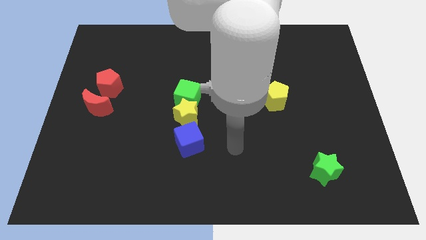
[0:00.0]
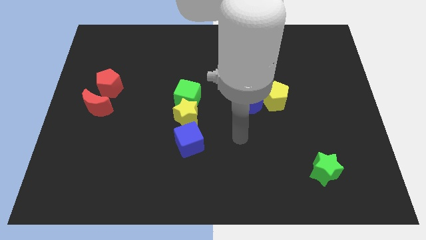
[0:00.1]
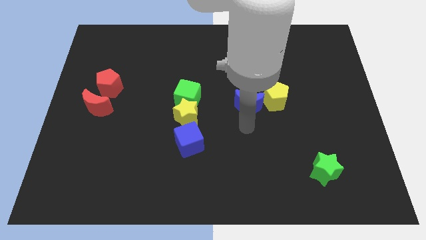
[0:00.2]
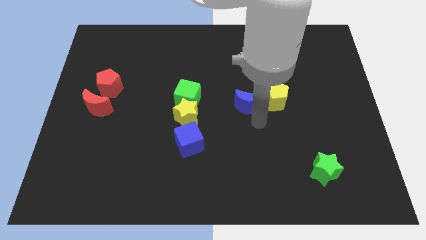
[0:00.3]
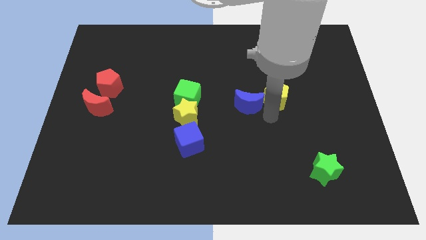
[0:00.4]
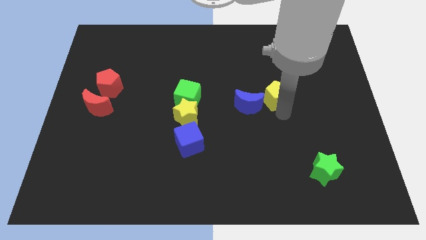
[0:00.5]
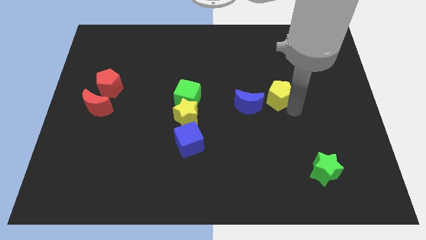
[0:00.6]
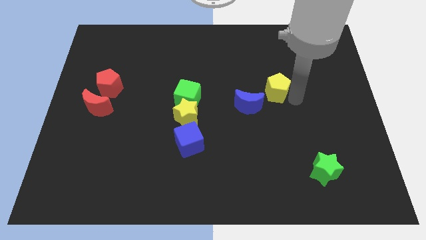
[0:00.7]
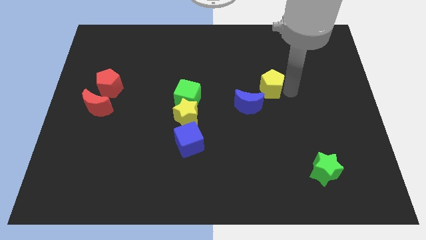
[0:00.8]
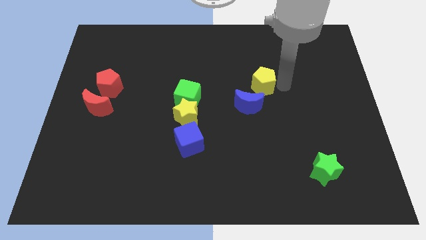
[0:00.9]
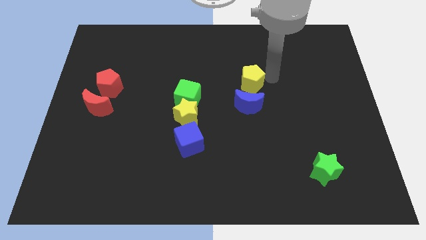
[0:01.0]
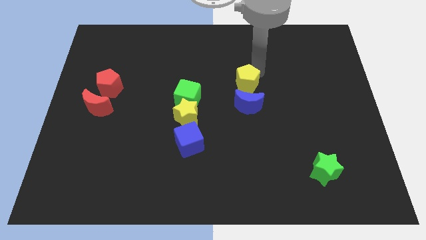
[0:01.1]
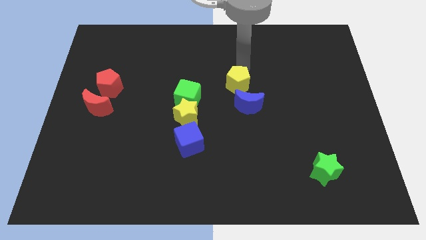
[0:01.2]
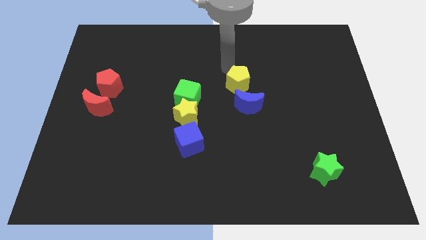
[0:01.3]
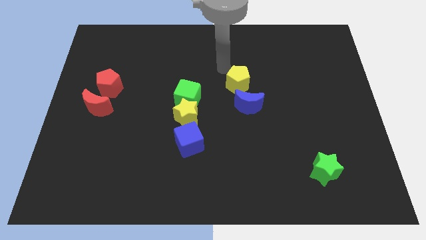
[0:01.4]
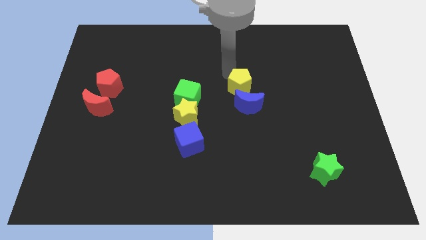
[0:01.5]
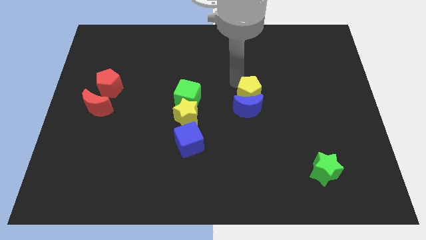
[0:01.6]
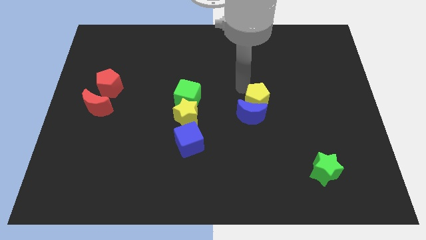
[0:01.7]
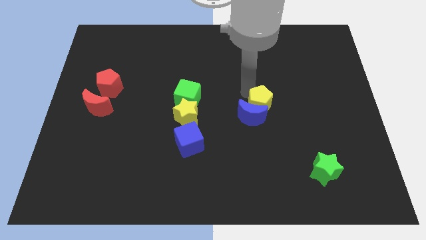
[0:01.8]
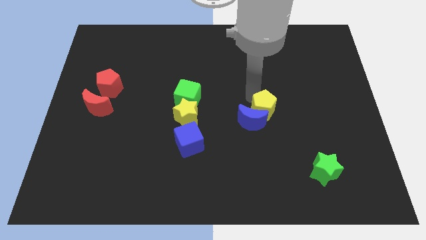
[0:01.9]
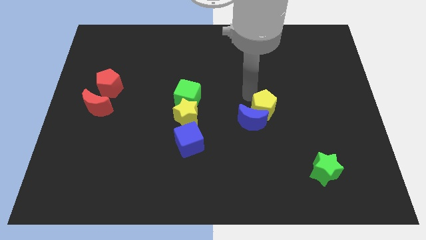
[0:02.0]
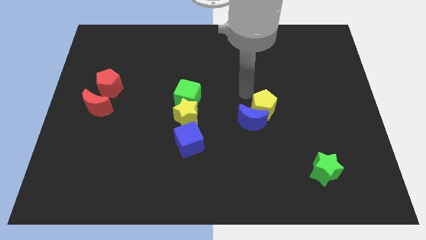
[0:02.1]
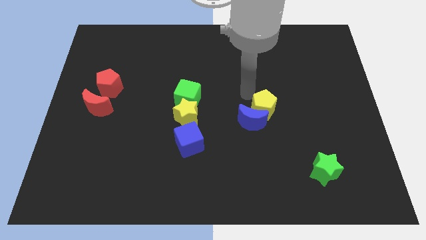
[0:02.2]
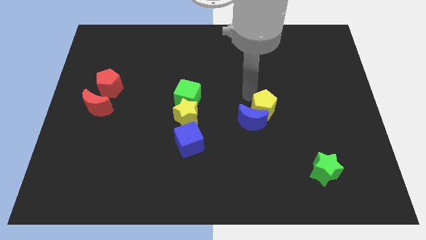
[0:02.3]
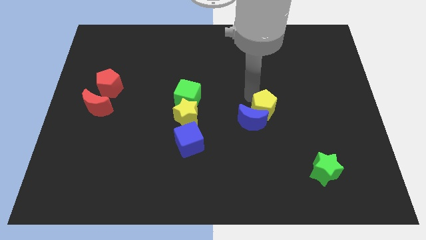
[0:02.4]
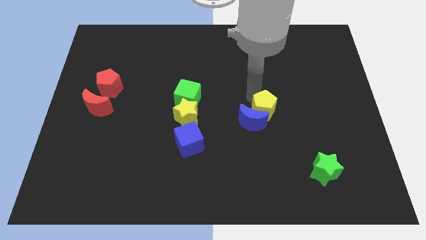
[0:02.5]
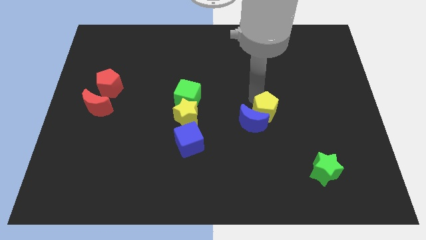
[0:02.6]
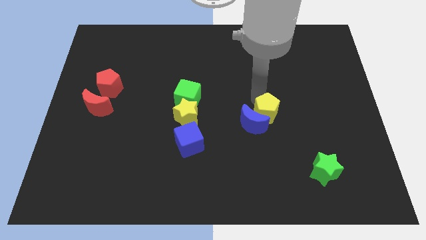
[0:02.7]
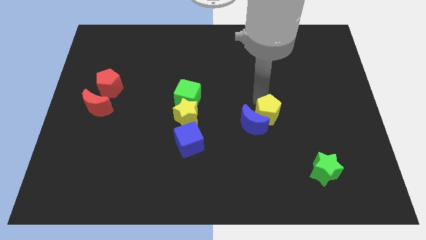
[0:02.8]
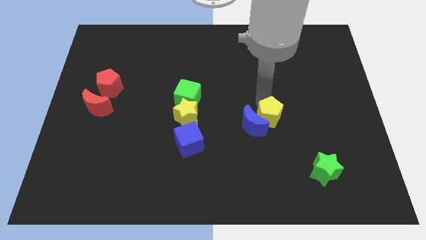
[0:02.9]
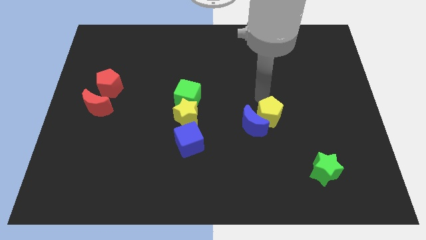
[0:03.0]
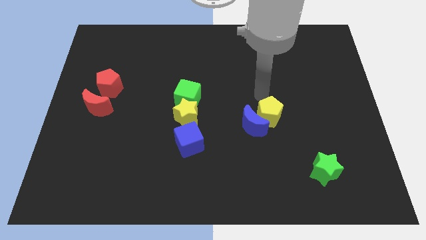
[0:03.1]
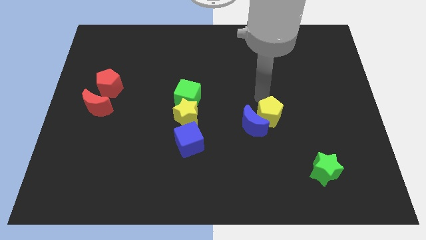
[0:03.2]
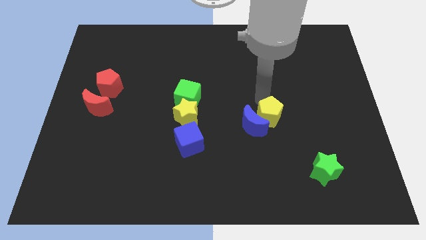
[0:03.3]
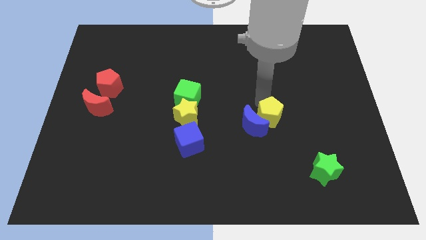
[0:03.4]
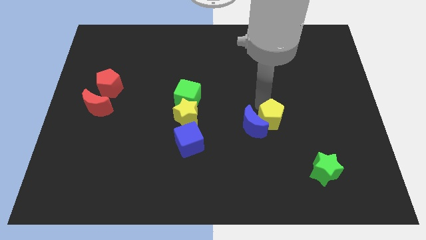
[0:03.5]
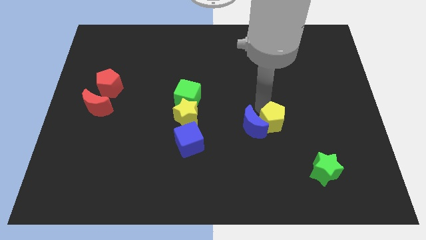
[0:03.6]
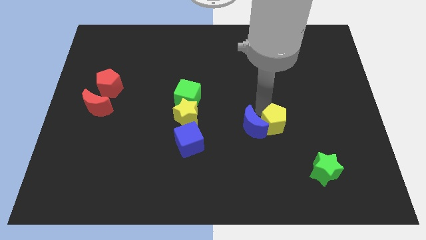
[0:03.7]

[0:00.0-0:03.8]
slightly push the yellow pentagon down

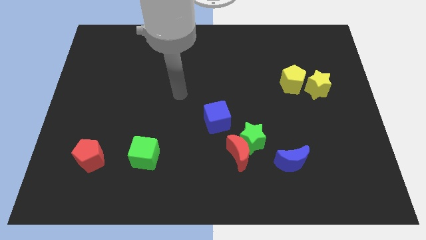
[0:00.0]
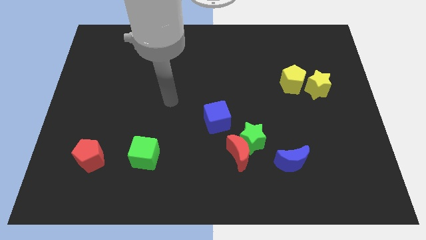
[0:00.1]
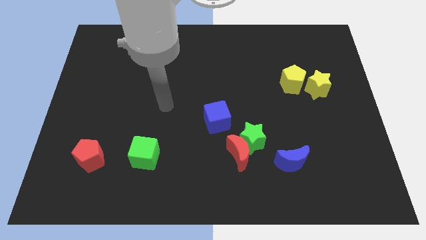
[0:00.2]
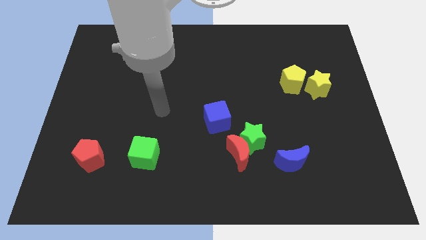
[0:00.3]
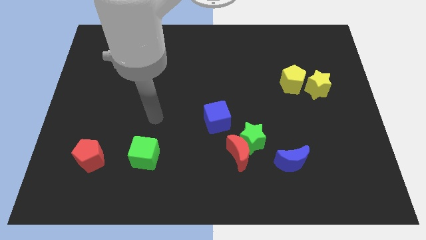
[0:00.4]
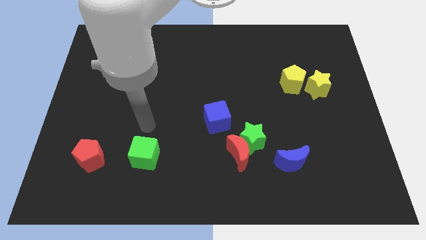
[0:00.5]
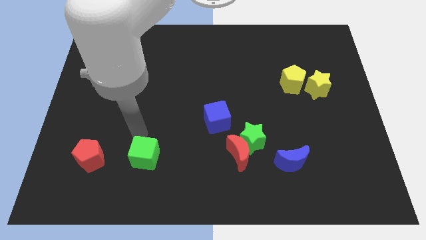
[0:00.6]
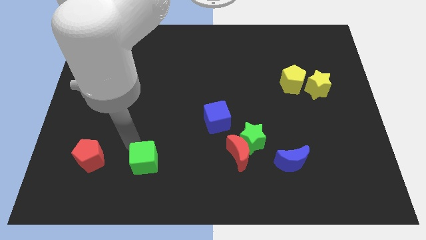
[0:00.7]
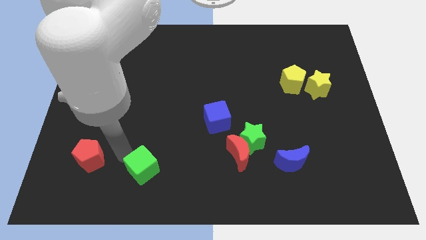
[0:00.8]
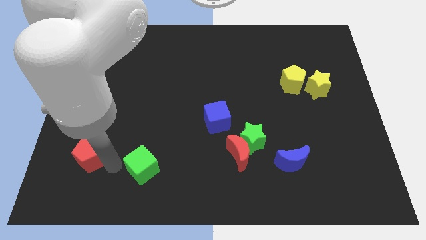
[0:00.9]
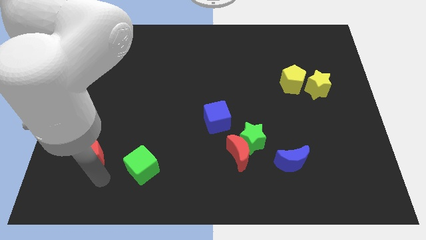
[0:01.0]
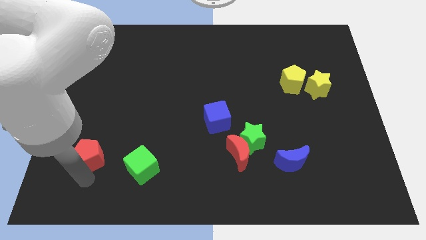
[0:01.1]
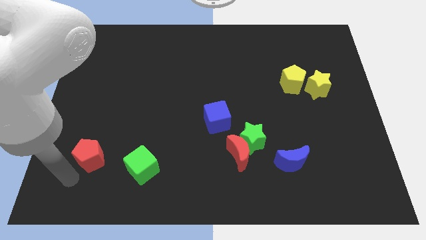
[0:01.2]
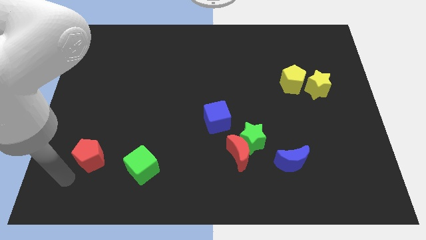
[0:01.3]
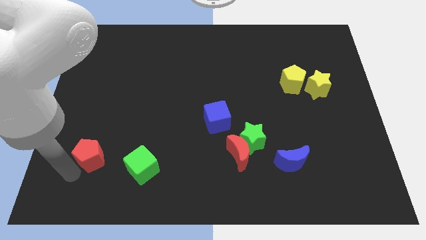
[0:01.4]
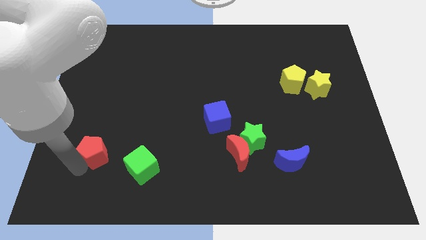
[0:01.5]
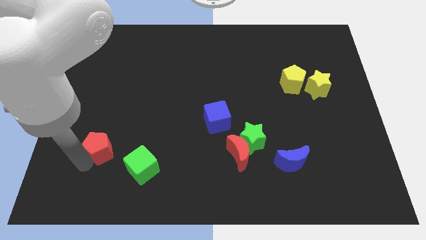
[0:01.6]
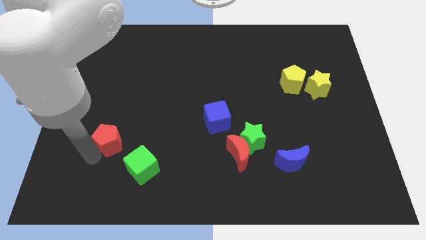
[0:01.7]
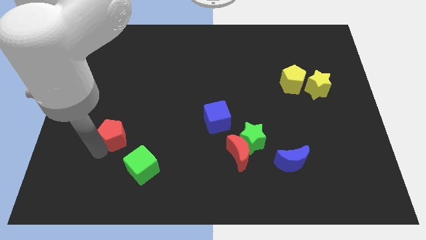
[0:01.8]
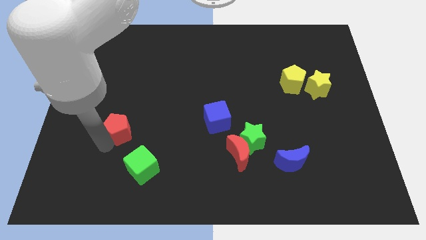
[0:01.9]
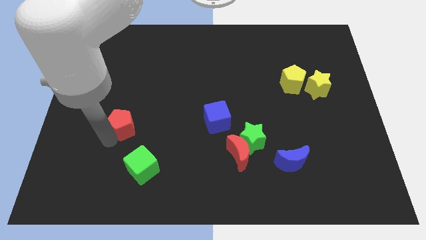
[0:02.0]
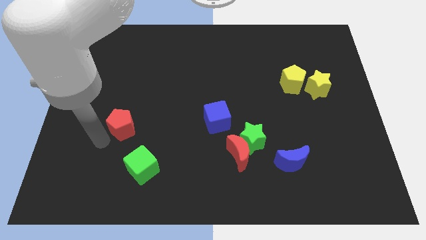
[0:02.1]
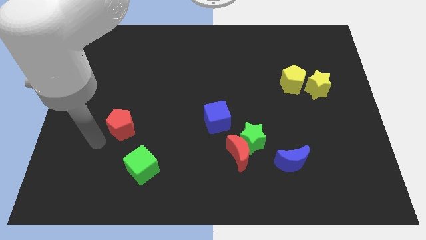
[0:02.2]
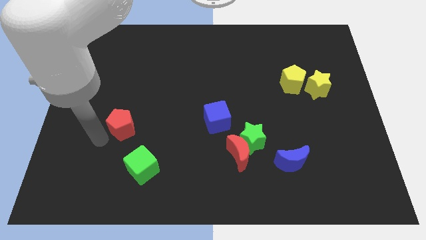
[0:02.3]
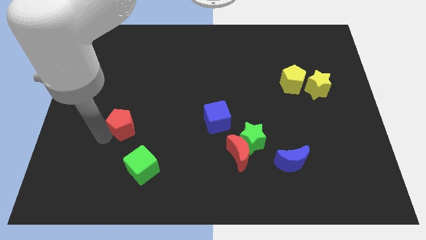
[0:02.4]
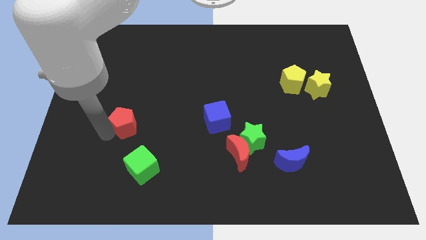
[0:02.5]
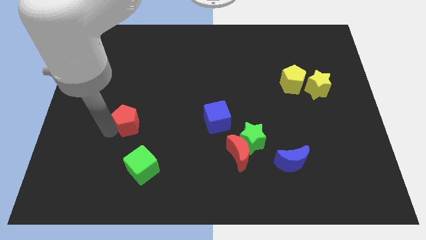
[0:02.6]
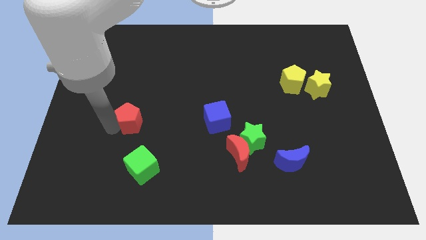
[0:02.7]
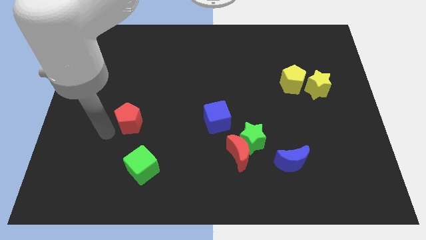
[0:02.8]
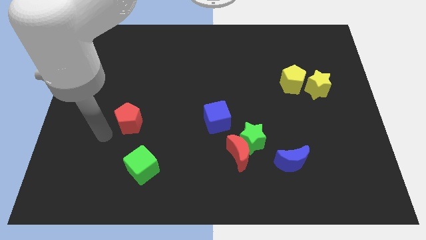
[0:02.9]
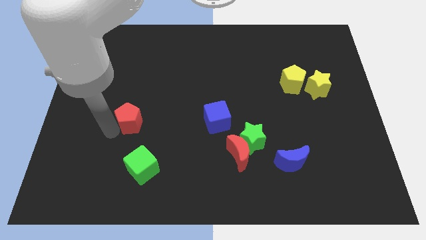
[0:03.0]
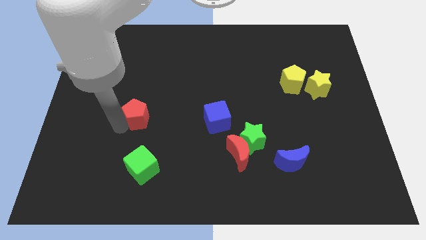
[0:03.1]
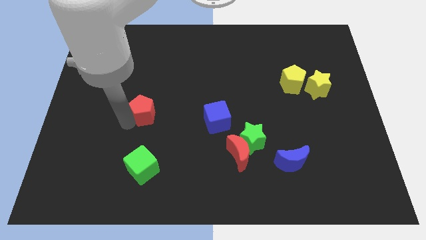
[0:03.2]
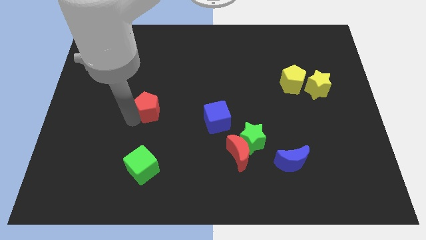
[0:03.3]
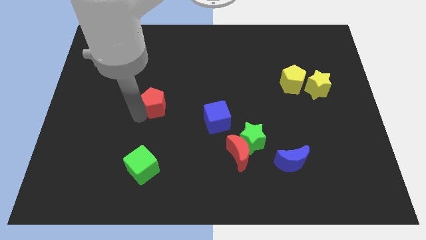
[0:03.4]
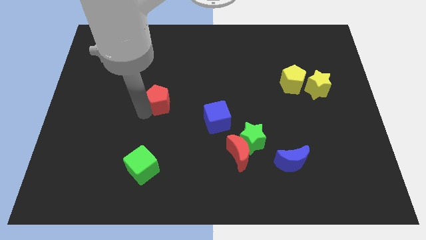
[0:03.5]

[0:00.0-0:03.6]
push the red pentagon up and then right

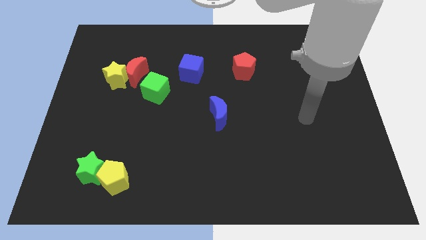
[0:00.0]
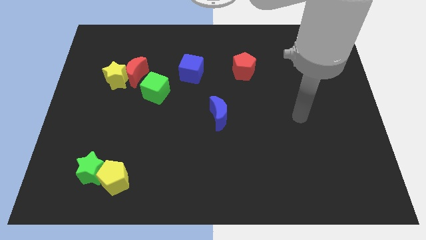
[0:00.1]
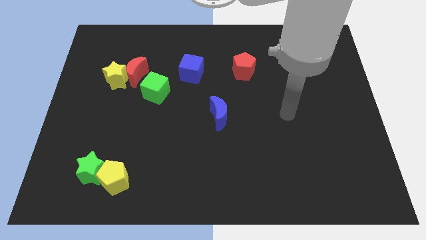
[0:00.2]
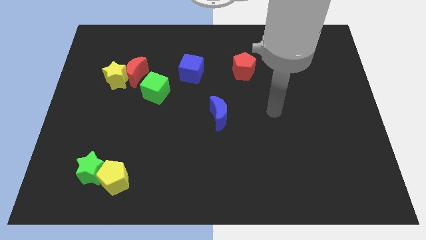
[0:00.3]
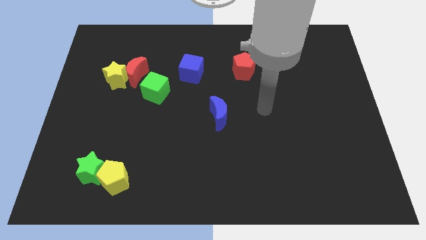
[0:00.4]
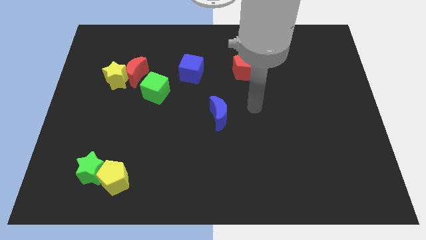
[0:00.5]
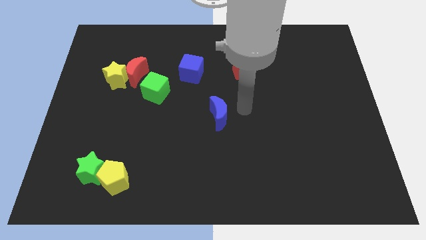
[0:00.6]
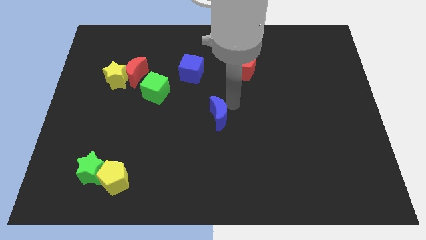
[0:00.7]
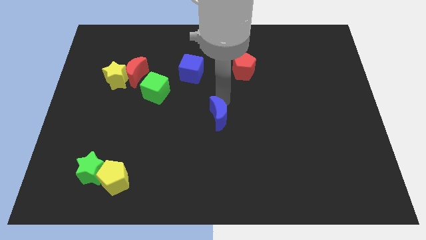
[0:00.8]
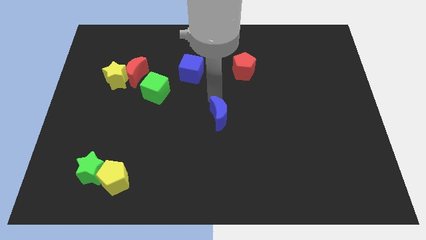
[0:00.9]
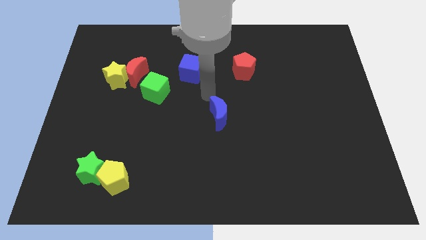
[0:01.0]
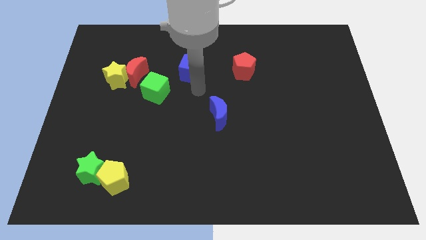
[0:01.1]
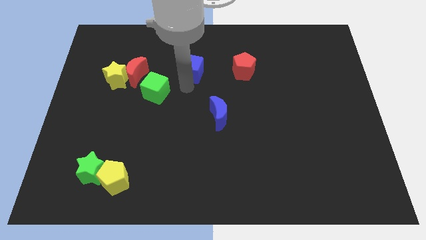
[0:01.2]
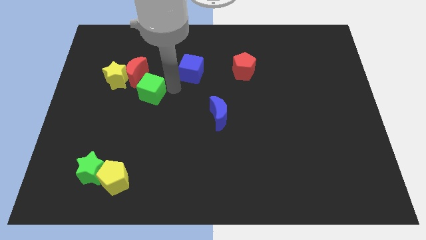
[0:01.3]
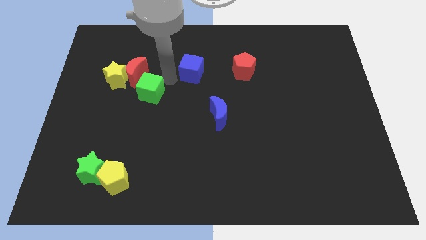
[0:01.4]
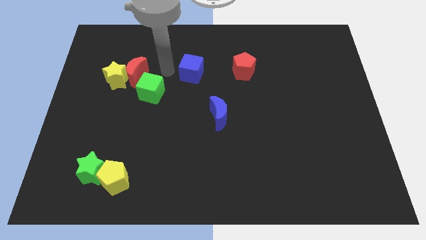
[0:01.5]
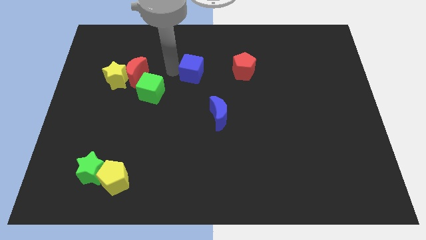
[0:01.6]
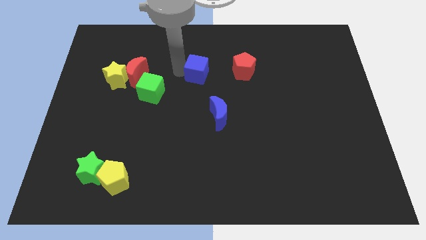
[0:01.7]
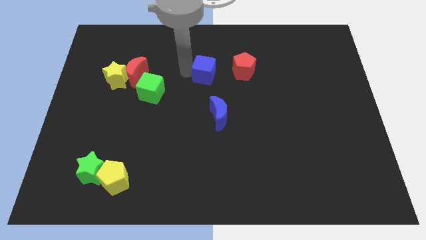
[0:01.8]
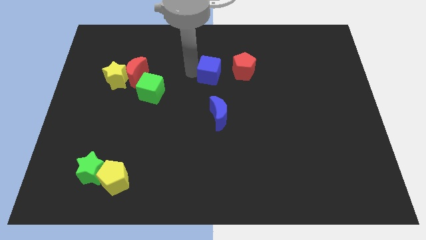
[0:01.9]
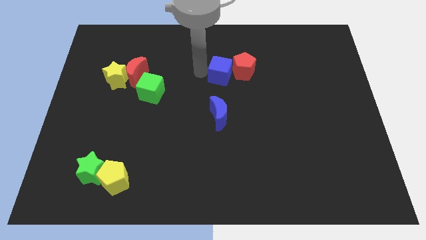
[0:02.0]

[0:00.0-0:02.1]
slightly slide the blue cube right
